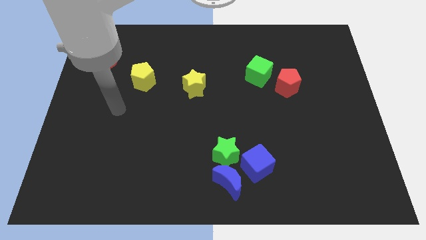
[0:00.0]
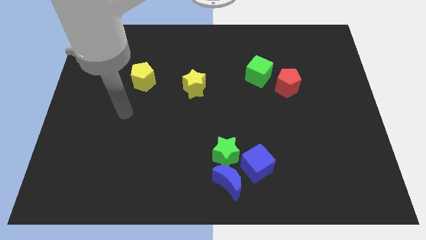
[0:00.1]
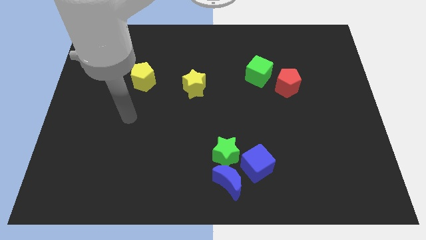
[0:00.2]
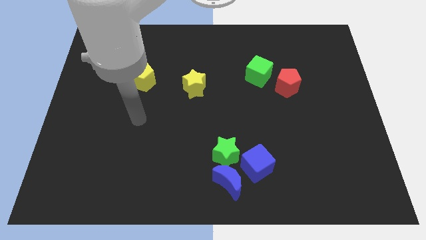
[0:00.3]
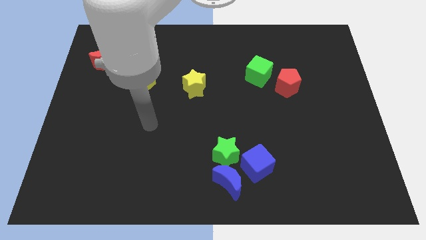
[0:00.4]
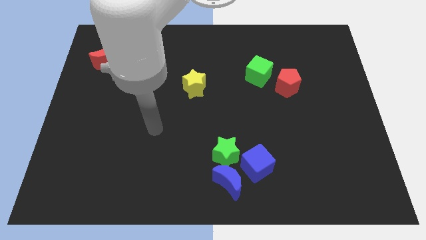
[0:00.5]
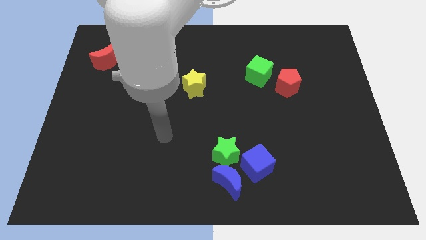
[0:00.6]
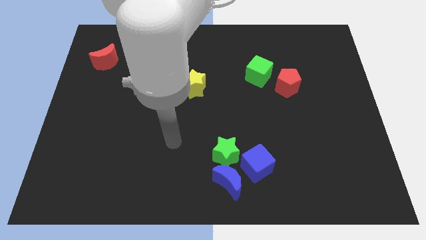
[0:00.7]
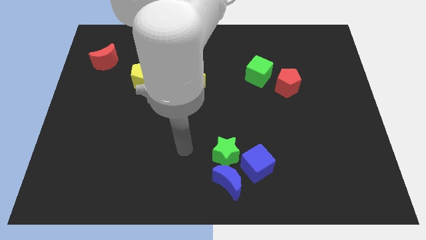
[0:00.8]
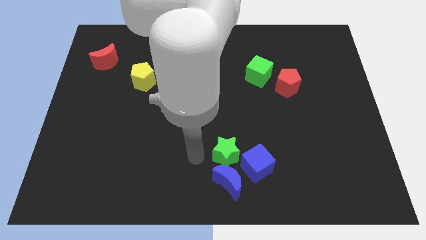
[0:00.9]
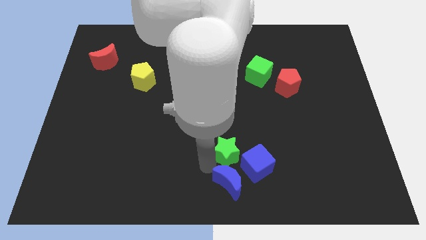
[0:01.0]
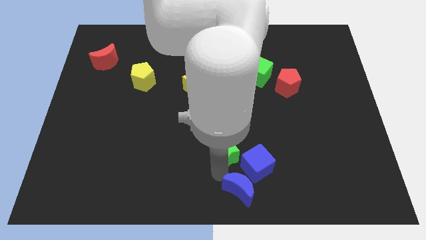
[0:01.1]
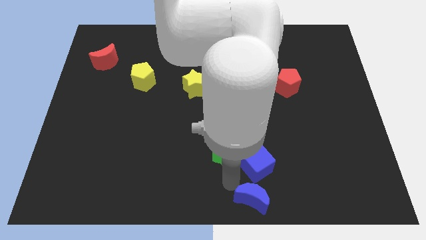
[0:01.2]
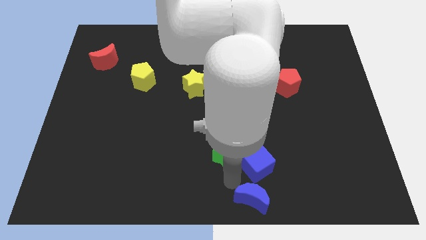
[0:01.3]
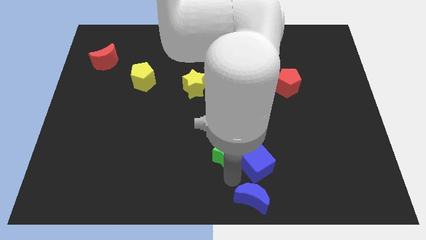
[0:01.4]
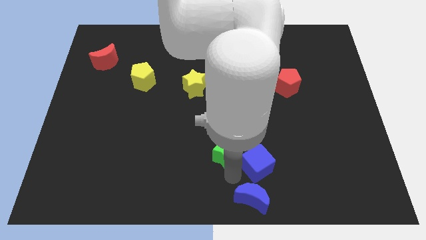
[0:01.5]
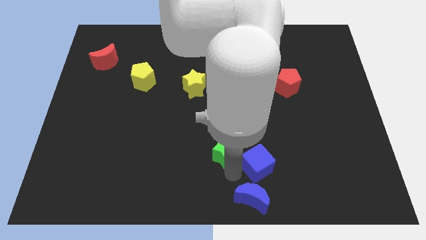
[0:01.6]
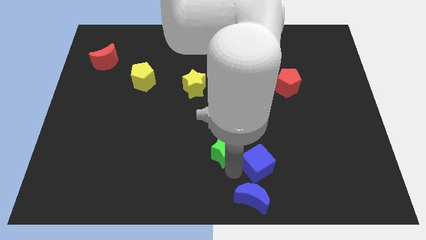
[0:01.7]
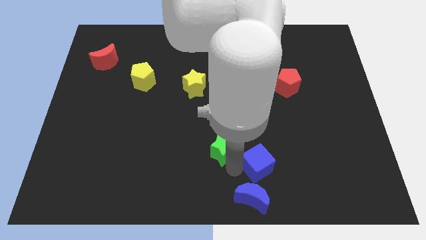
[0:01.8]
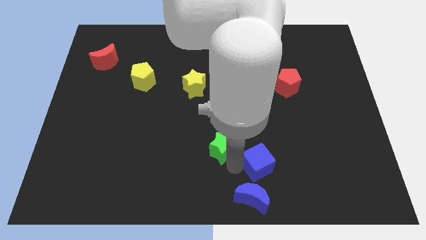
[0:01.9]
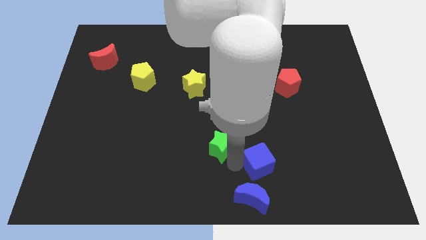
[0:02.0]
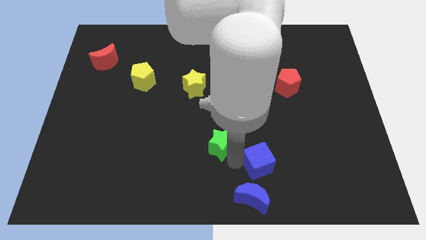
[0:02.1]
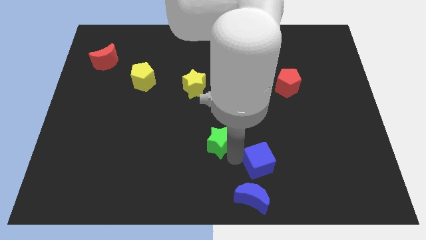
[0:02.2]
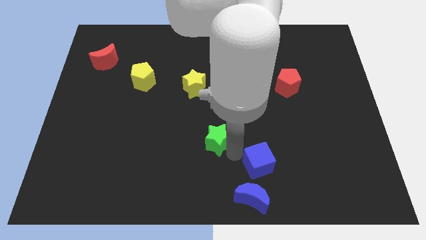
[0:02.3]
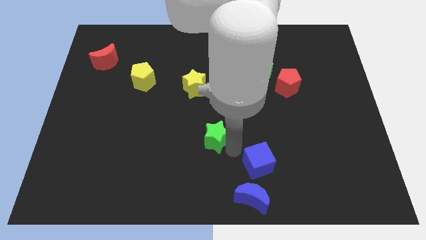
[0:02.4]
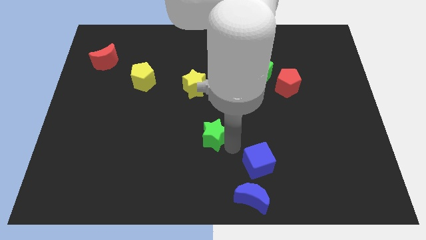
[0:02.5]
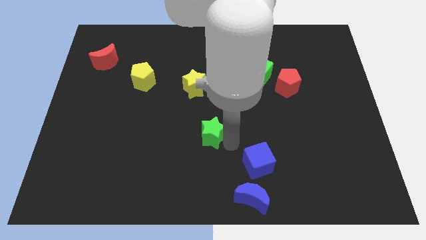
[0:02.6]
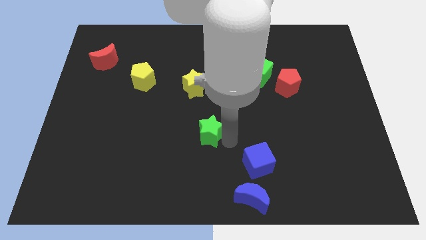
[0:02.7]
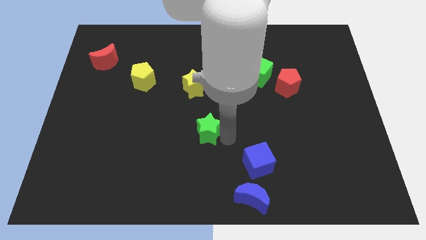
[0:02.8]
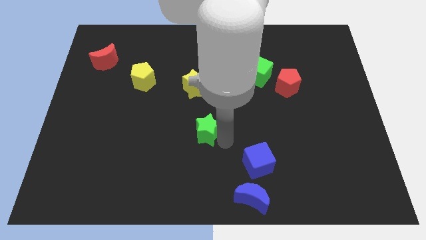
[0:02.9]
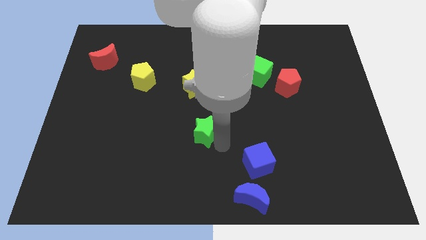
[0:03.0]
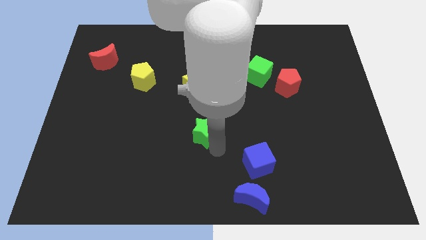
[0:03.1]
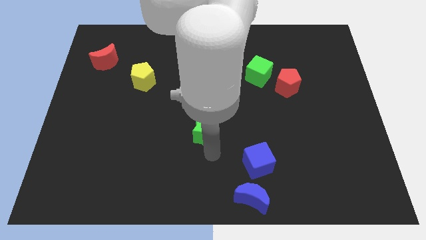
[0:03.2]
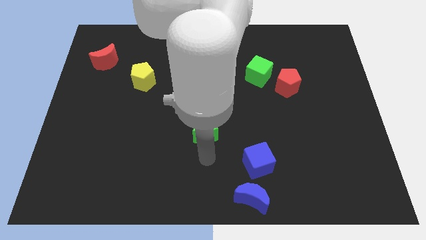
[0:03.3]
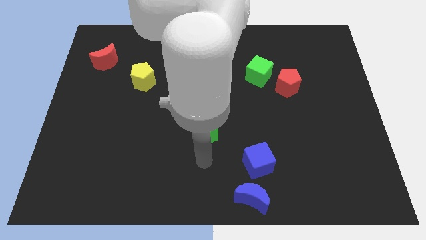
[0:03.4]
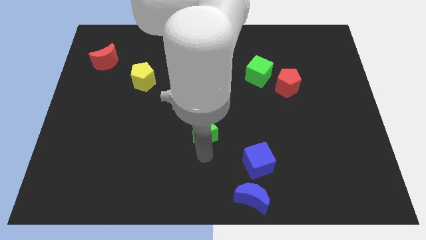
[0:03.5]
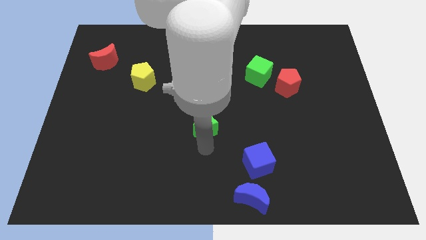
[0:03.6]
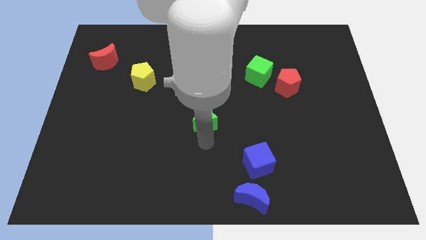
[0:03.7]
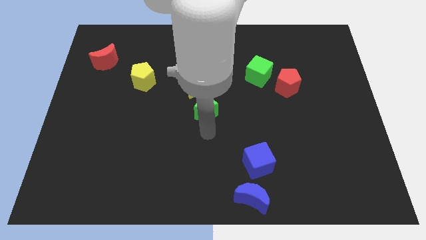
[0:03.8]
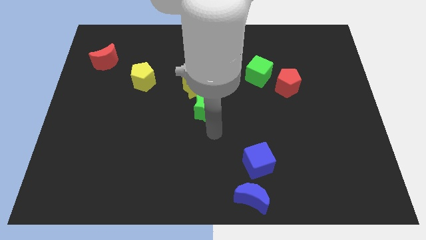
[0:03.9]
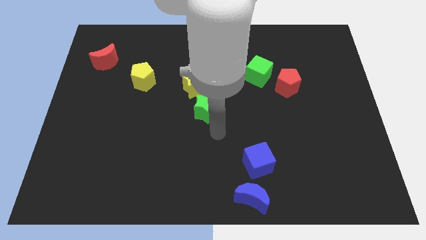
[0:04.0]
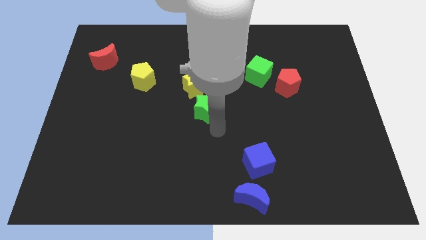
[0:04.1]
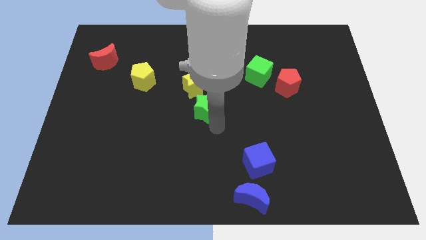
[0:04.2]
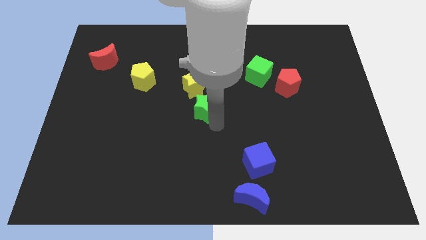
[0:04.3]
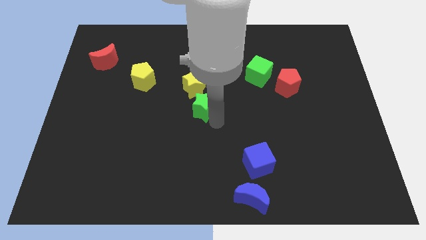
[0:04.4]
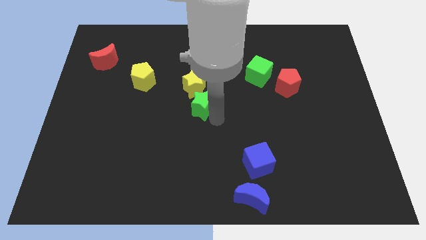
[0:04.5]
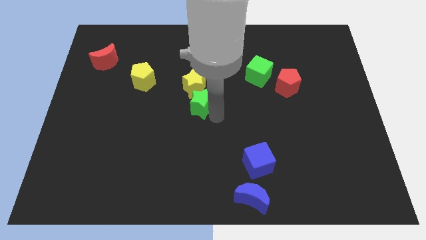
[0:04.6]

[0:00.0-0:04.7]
put the green star next to the yellow star

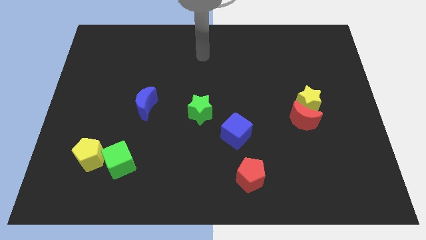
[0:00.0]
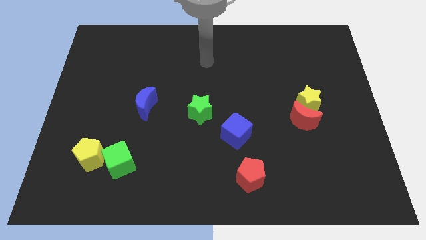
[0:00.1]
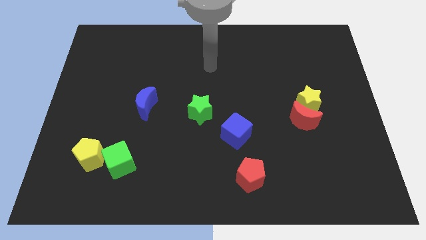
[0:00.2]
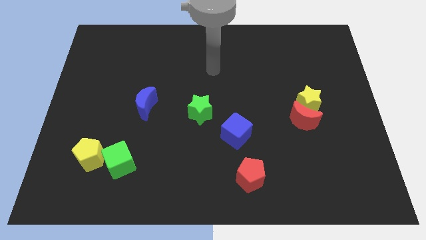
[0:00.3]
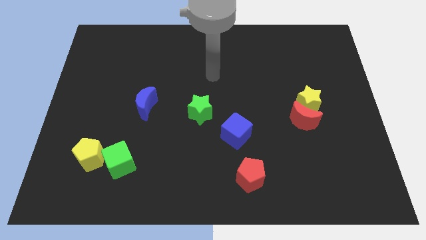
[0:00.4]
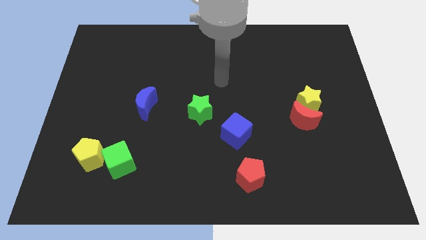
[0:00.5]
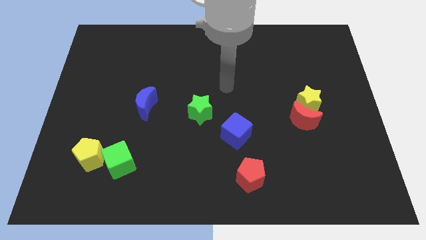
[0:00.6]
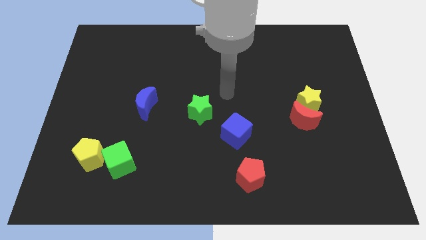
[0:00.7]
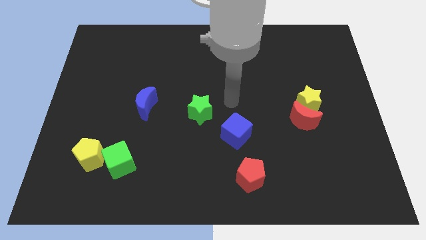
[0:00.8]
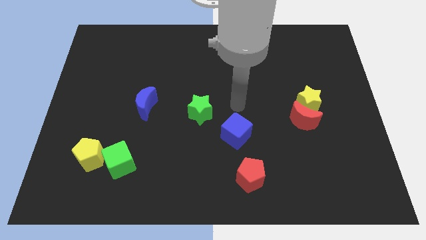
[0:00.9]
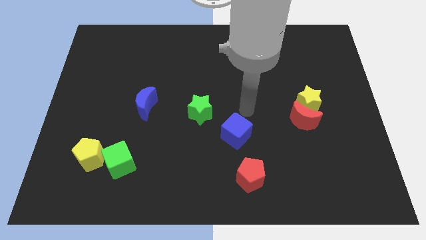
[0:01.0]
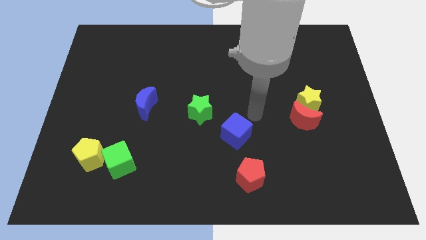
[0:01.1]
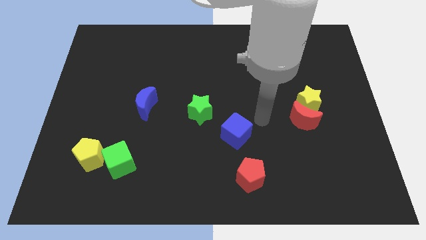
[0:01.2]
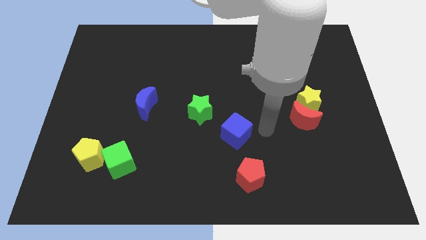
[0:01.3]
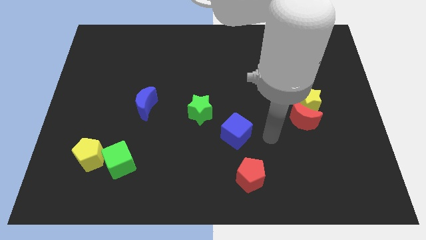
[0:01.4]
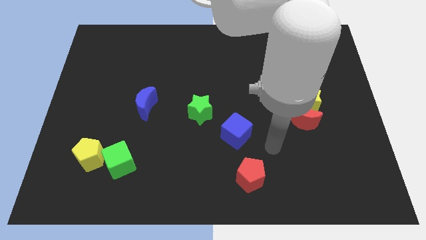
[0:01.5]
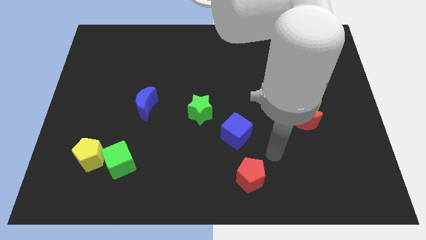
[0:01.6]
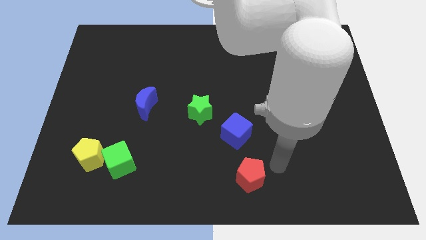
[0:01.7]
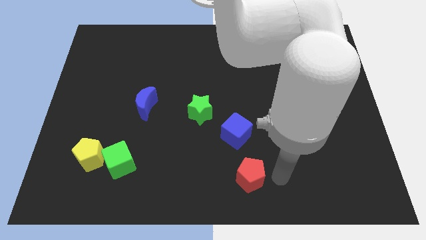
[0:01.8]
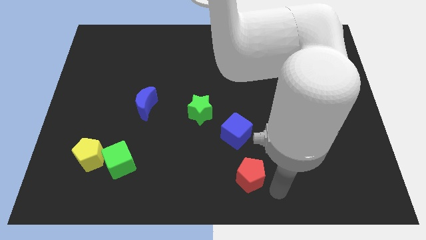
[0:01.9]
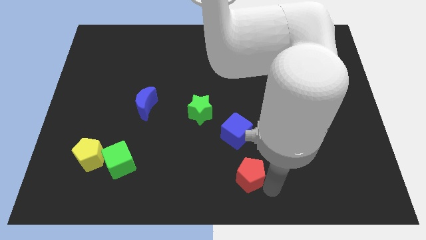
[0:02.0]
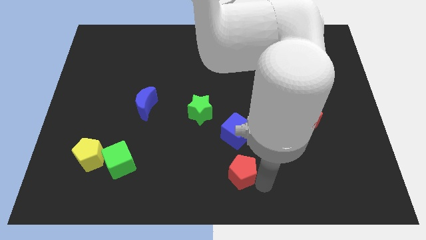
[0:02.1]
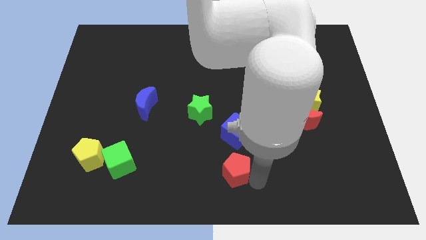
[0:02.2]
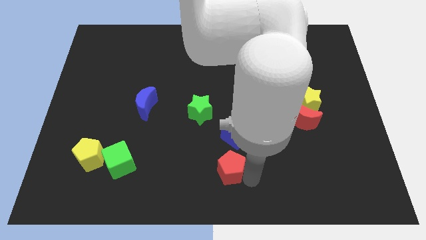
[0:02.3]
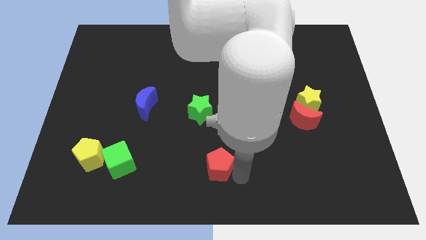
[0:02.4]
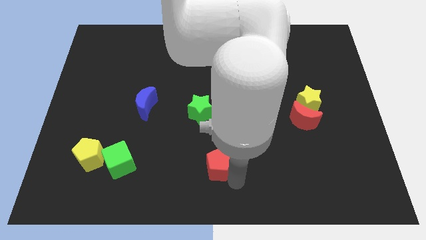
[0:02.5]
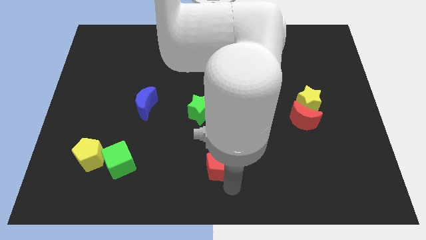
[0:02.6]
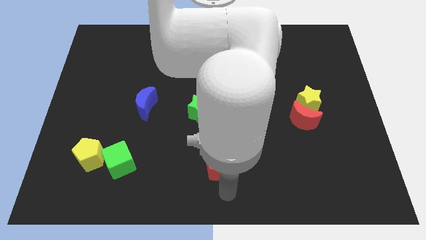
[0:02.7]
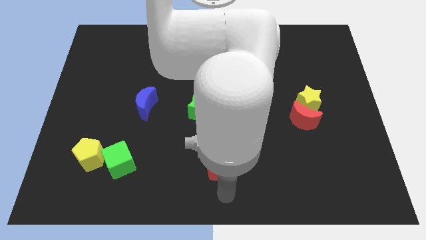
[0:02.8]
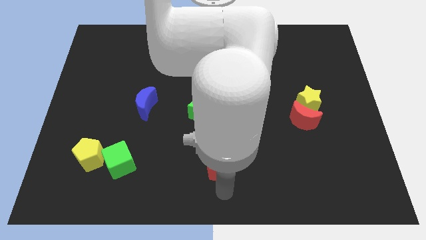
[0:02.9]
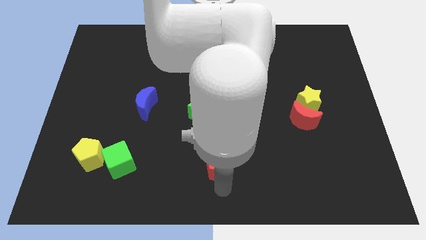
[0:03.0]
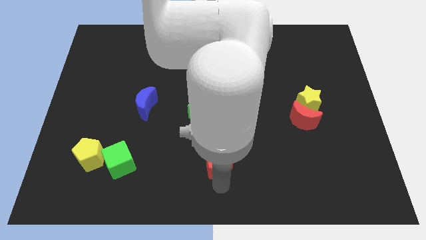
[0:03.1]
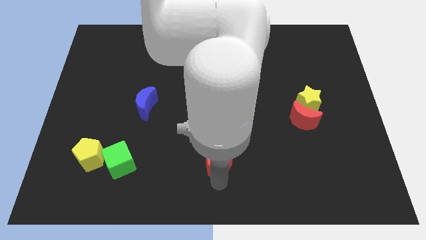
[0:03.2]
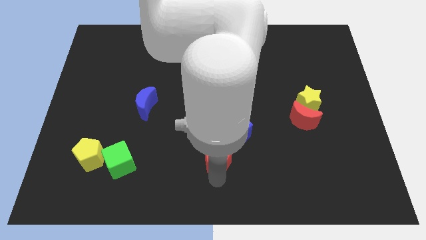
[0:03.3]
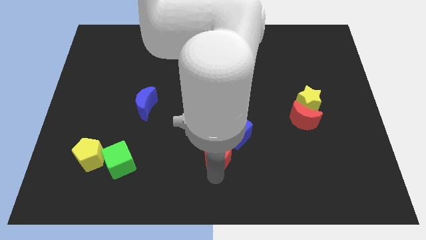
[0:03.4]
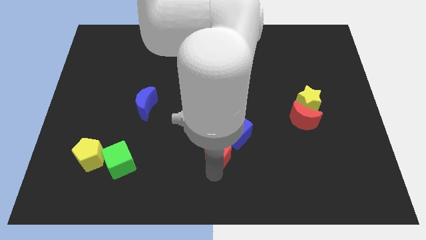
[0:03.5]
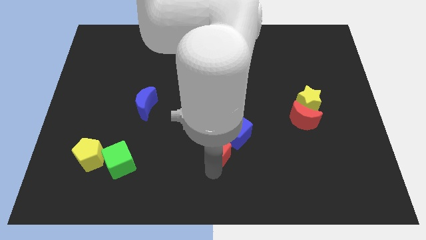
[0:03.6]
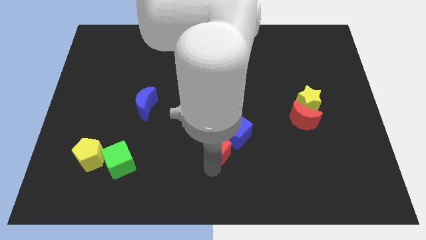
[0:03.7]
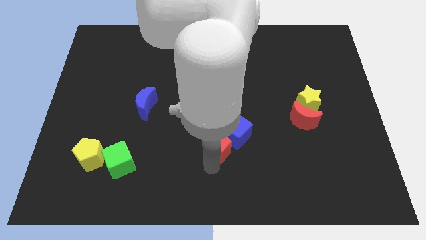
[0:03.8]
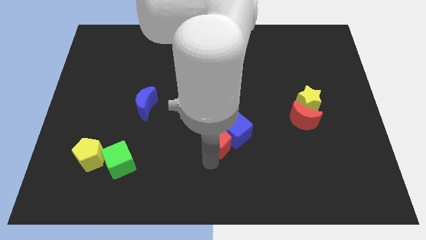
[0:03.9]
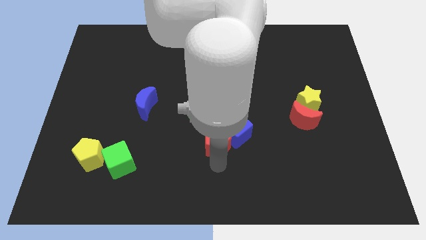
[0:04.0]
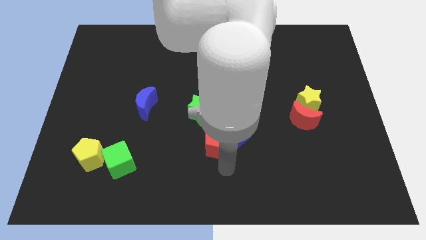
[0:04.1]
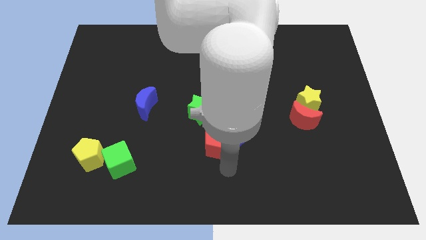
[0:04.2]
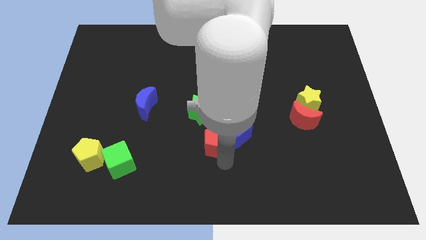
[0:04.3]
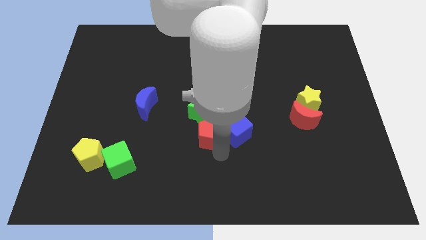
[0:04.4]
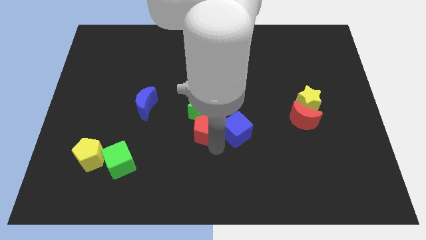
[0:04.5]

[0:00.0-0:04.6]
push the red pentagon close to the green star
